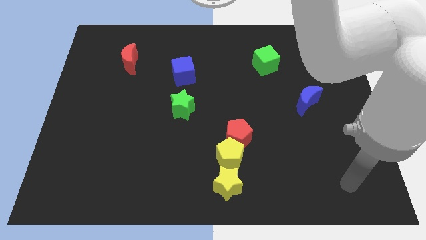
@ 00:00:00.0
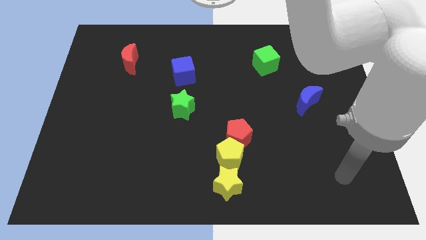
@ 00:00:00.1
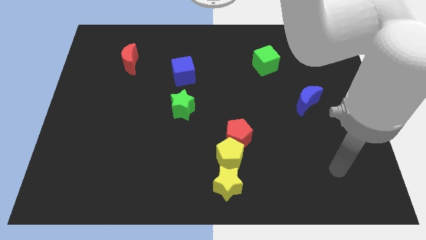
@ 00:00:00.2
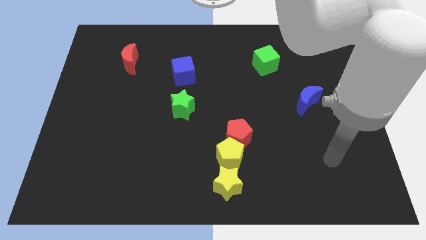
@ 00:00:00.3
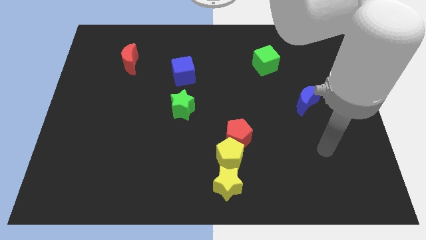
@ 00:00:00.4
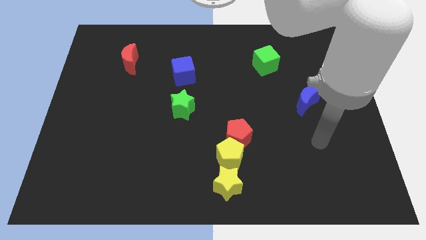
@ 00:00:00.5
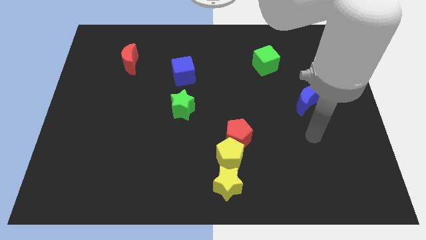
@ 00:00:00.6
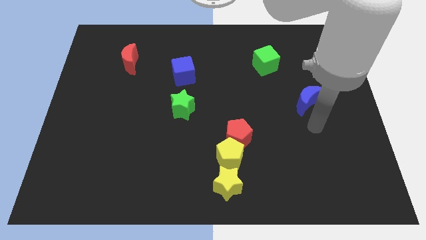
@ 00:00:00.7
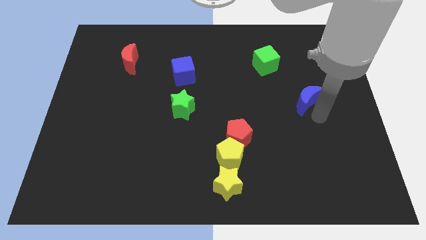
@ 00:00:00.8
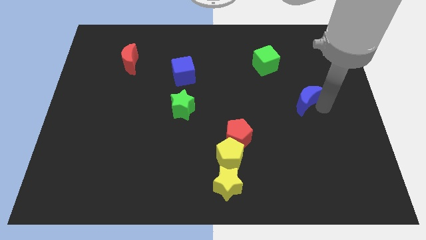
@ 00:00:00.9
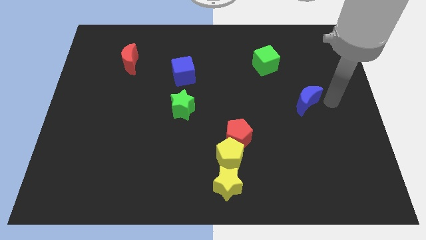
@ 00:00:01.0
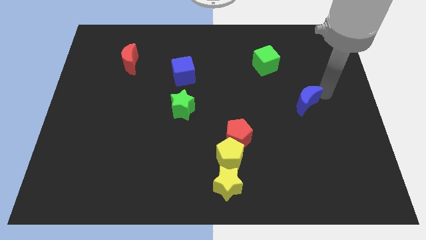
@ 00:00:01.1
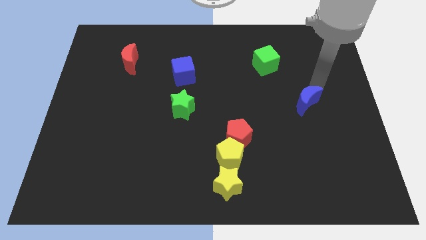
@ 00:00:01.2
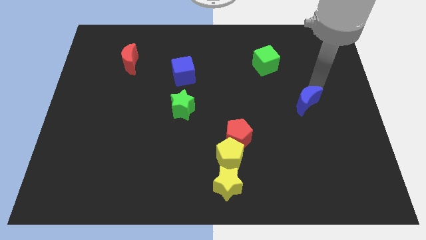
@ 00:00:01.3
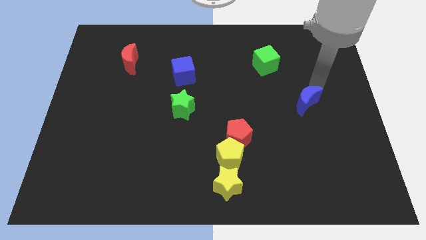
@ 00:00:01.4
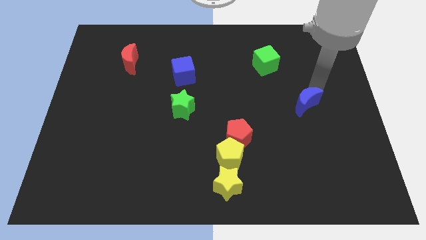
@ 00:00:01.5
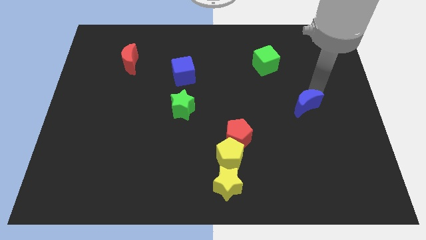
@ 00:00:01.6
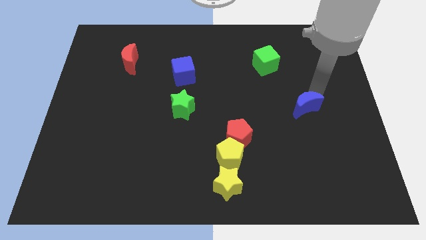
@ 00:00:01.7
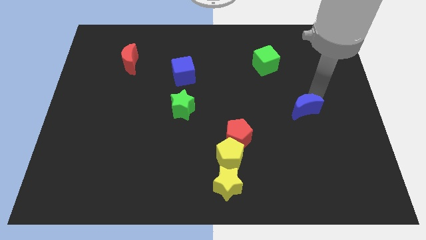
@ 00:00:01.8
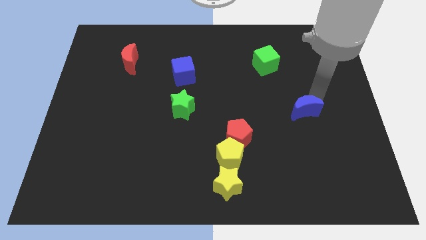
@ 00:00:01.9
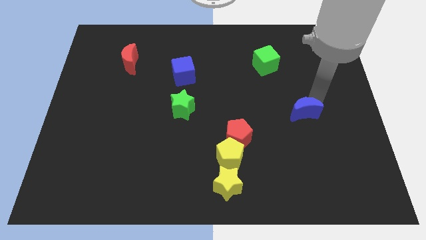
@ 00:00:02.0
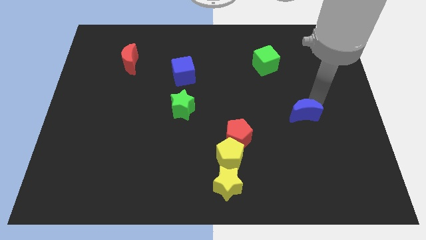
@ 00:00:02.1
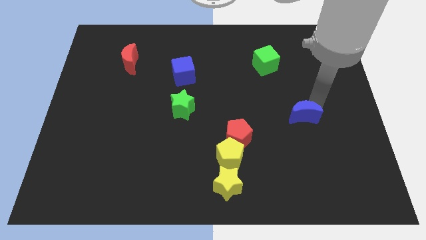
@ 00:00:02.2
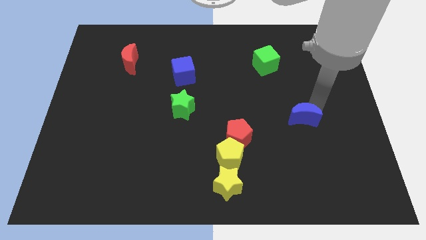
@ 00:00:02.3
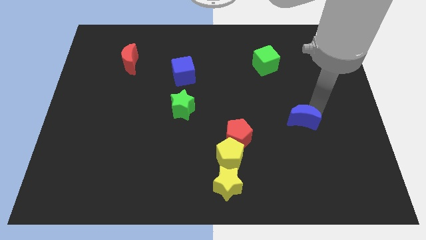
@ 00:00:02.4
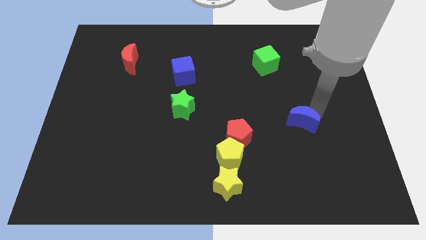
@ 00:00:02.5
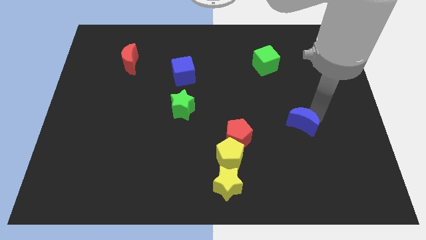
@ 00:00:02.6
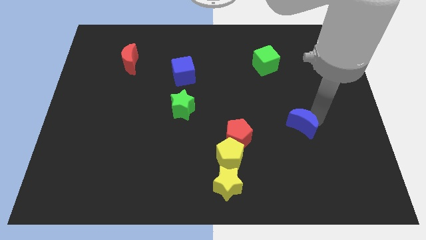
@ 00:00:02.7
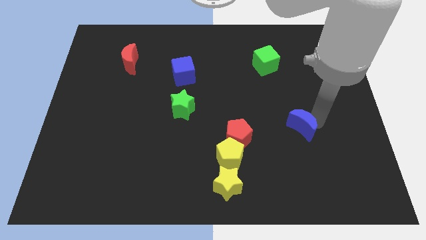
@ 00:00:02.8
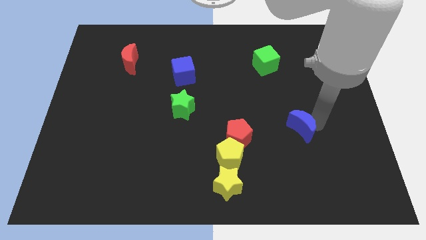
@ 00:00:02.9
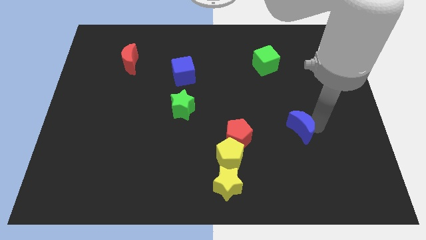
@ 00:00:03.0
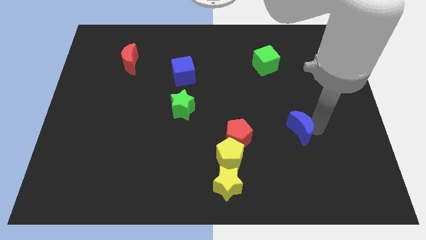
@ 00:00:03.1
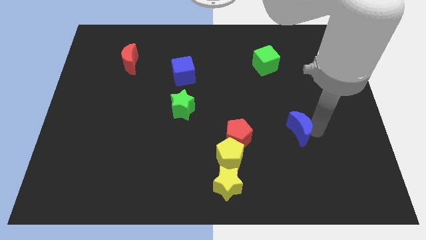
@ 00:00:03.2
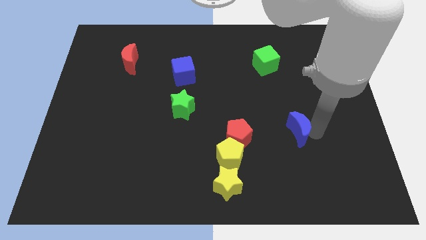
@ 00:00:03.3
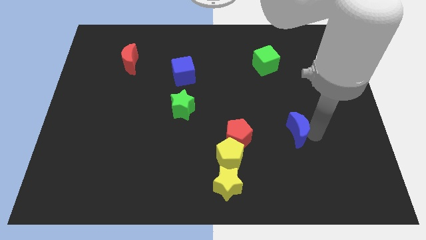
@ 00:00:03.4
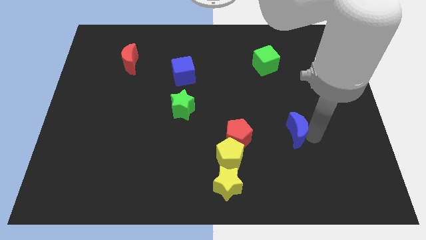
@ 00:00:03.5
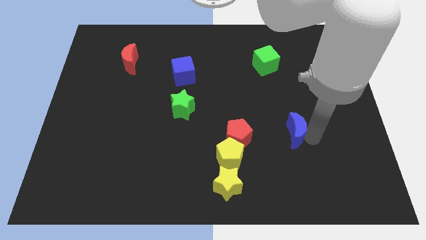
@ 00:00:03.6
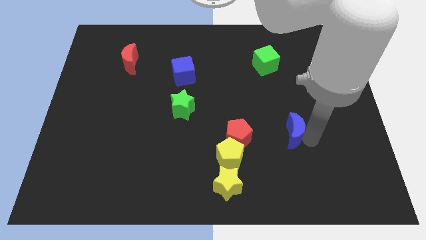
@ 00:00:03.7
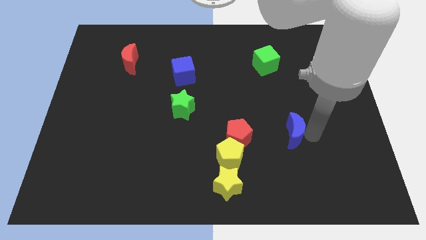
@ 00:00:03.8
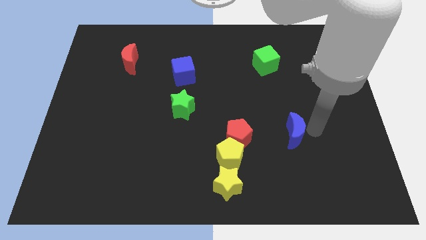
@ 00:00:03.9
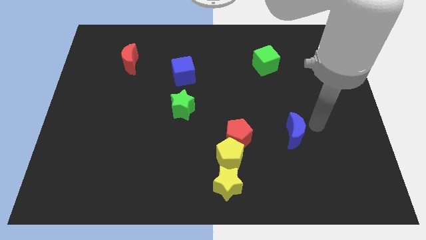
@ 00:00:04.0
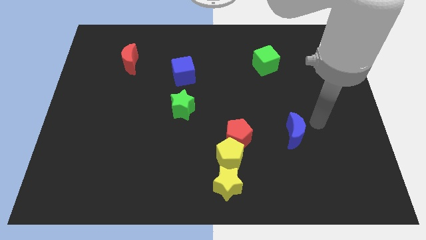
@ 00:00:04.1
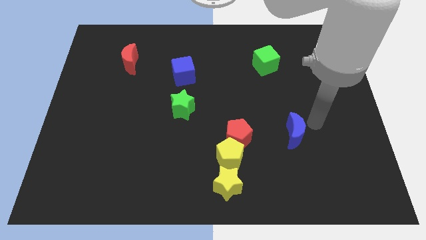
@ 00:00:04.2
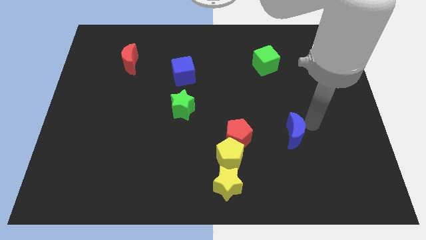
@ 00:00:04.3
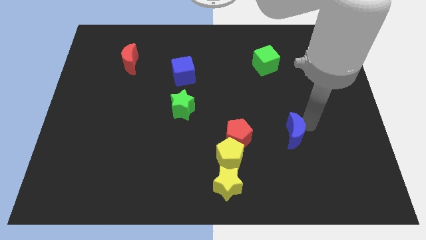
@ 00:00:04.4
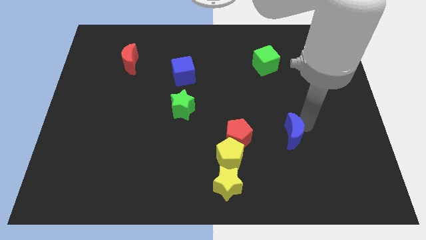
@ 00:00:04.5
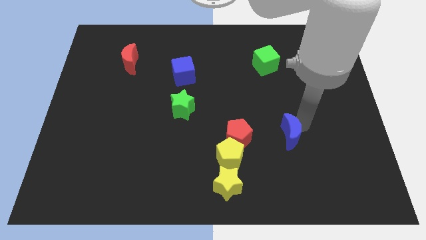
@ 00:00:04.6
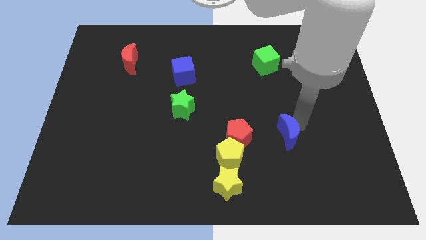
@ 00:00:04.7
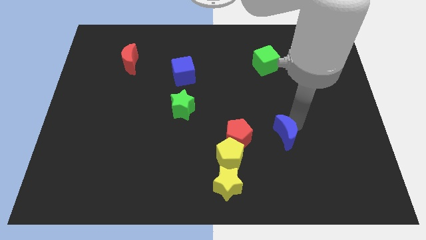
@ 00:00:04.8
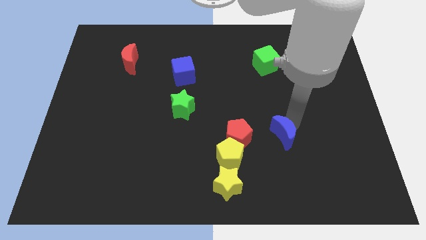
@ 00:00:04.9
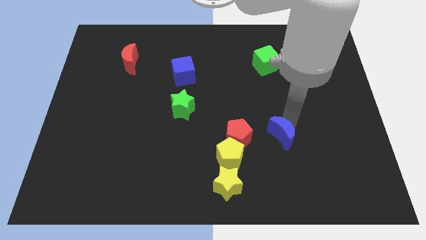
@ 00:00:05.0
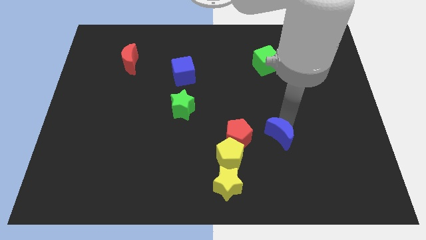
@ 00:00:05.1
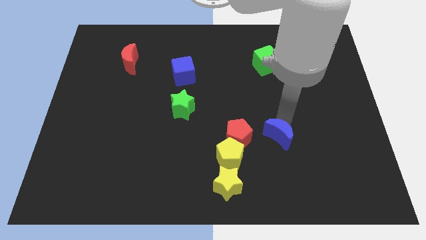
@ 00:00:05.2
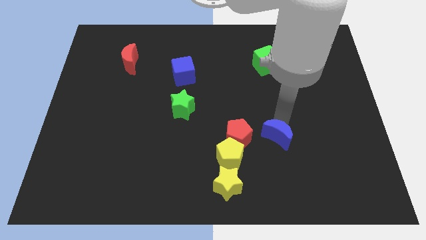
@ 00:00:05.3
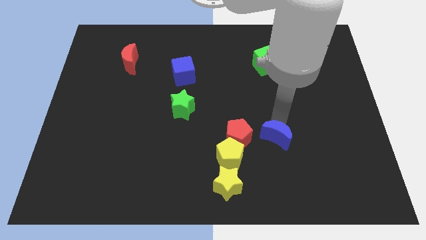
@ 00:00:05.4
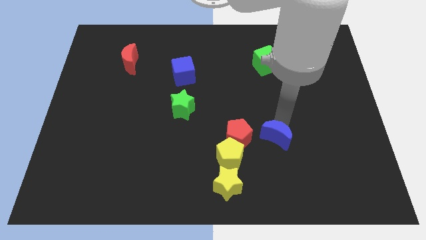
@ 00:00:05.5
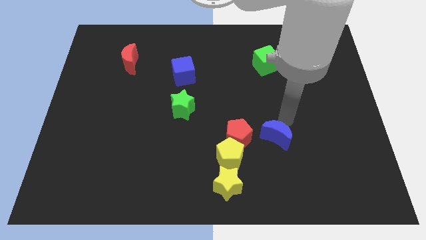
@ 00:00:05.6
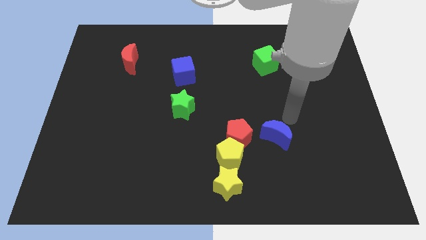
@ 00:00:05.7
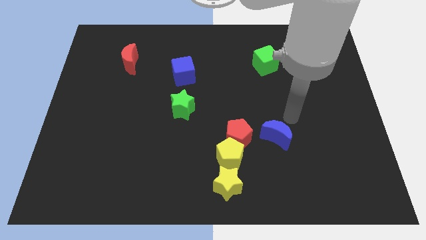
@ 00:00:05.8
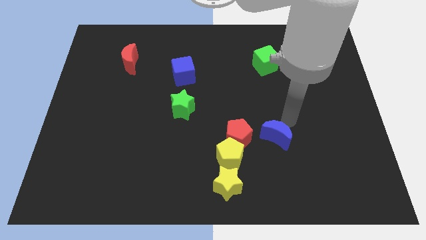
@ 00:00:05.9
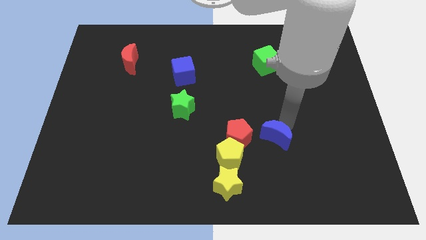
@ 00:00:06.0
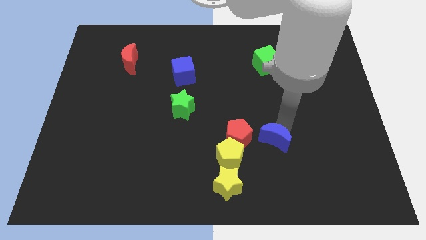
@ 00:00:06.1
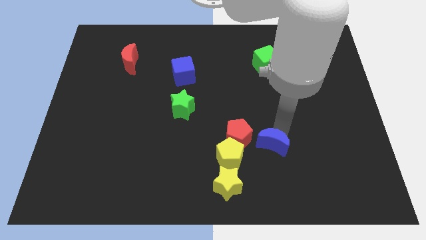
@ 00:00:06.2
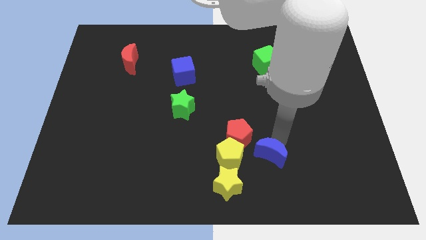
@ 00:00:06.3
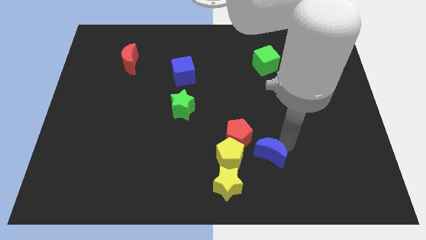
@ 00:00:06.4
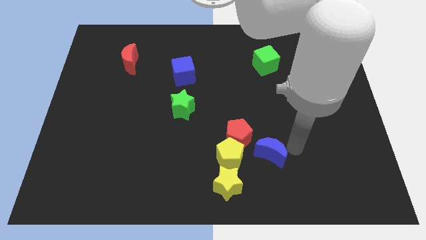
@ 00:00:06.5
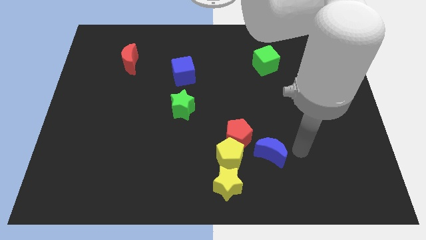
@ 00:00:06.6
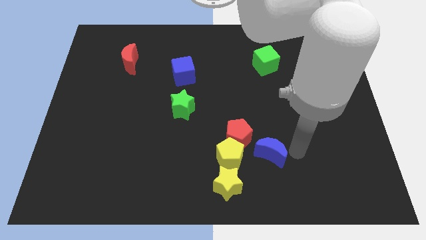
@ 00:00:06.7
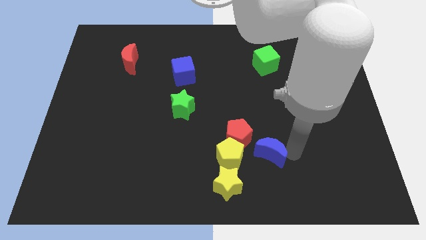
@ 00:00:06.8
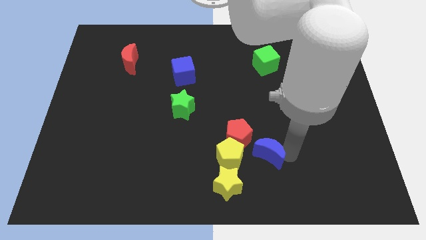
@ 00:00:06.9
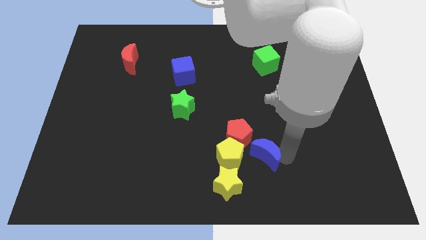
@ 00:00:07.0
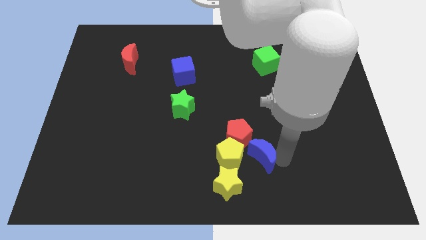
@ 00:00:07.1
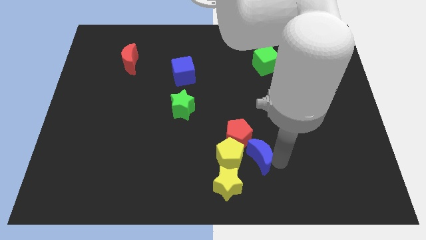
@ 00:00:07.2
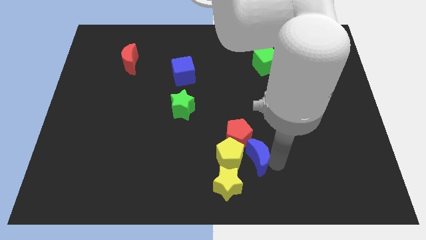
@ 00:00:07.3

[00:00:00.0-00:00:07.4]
put the blue moon close to the yellow pentagon
